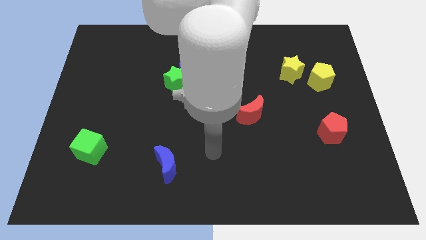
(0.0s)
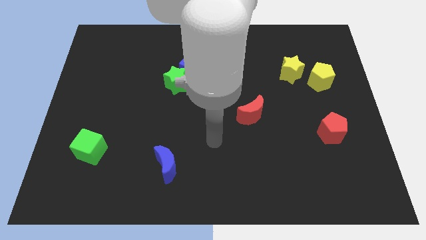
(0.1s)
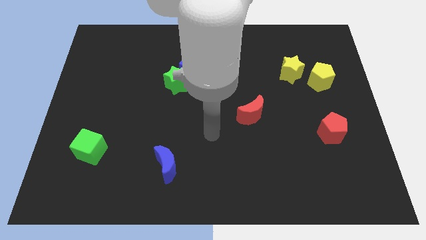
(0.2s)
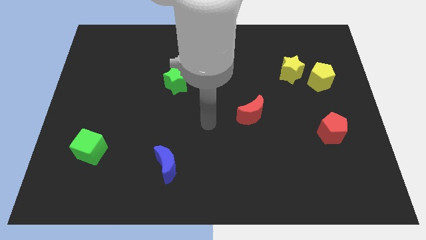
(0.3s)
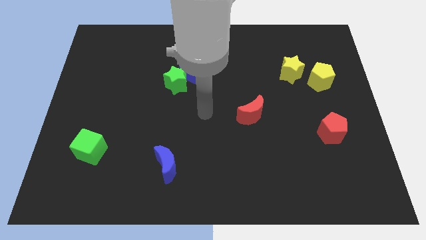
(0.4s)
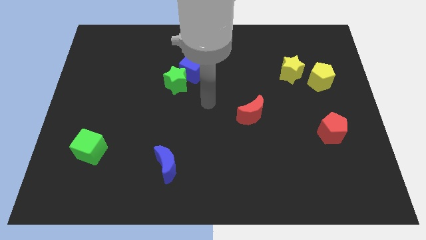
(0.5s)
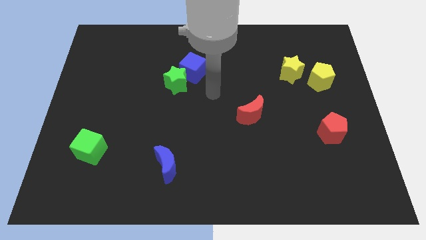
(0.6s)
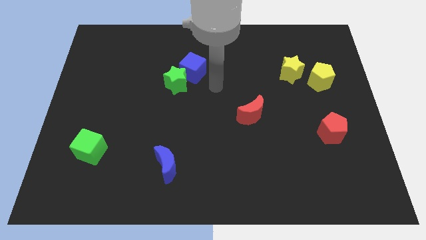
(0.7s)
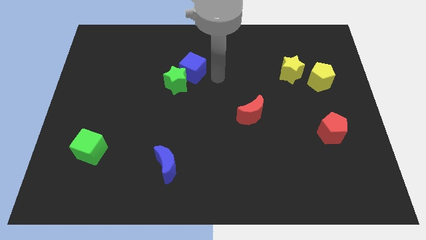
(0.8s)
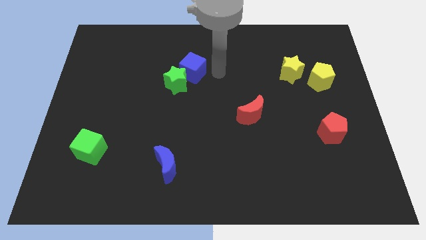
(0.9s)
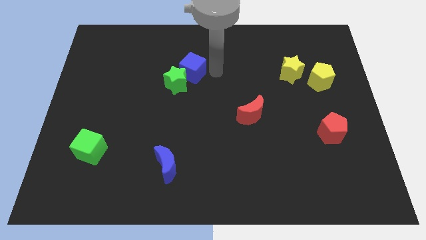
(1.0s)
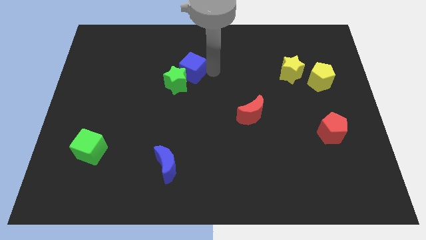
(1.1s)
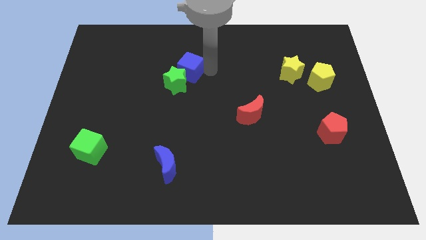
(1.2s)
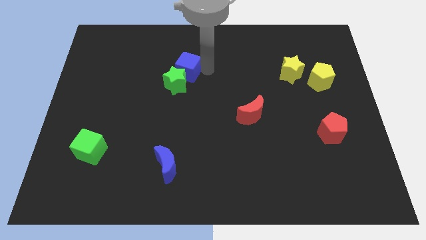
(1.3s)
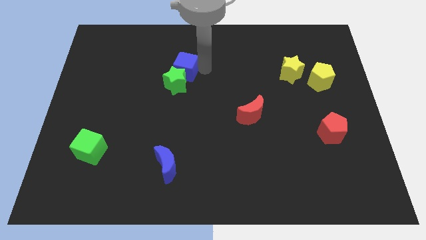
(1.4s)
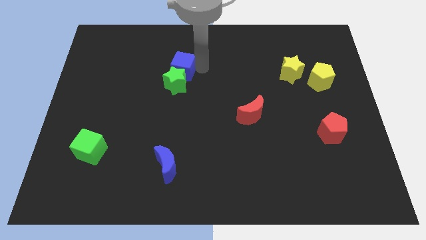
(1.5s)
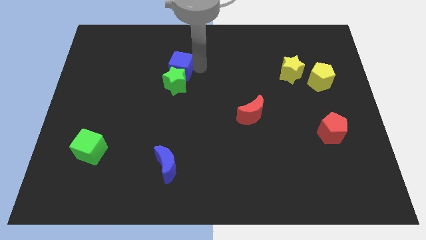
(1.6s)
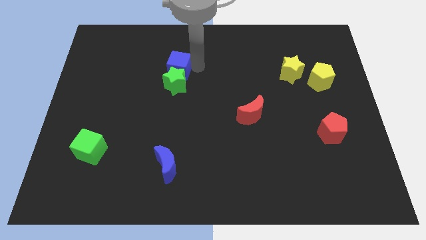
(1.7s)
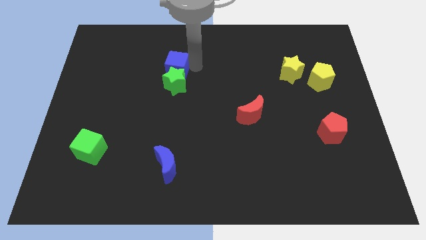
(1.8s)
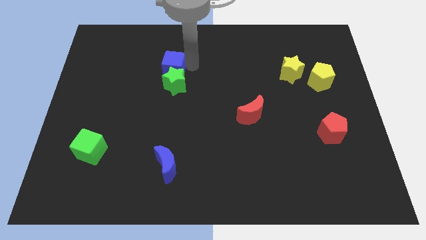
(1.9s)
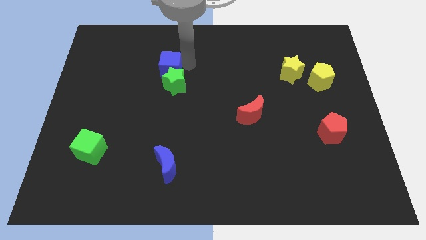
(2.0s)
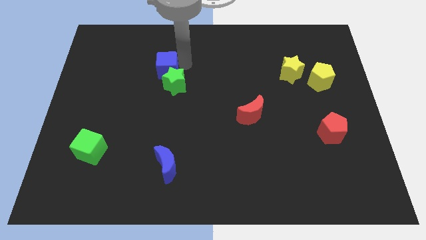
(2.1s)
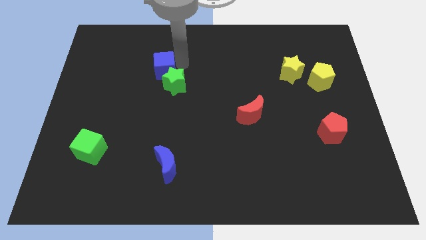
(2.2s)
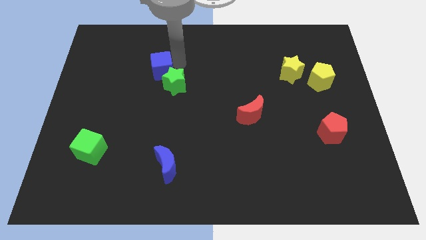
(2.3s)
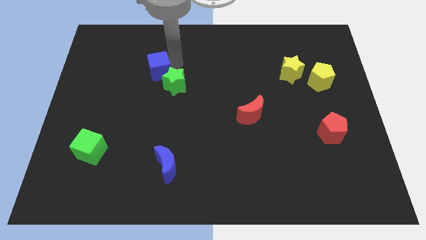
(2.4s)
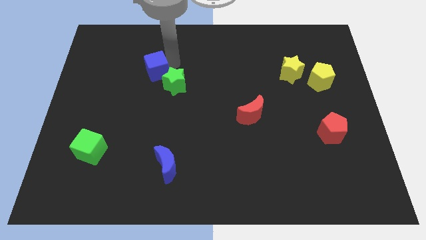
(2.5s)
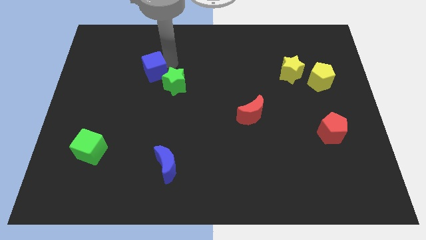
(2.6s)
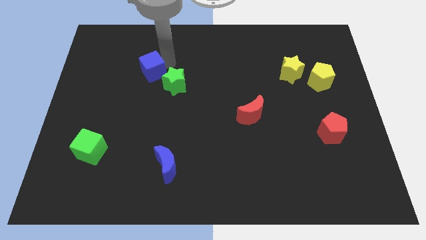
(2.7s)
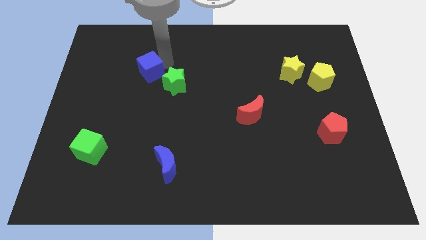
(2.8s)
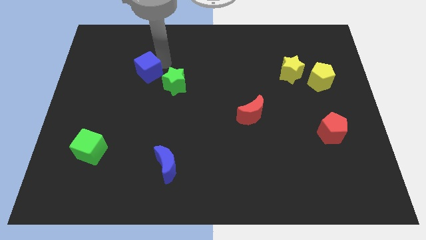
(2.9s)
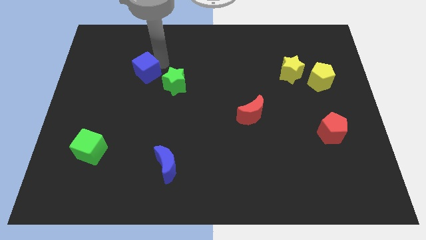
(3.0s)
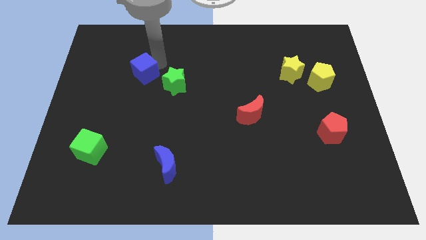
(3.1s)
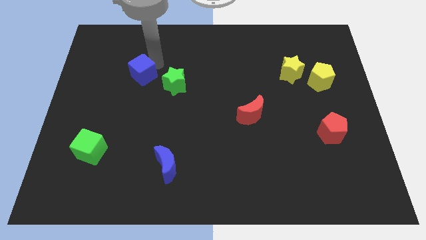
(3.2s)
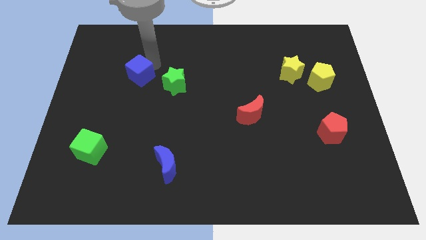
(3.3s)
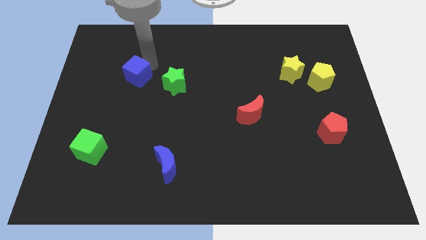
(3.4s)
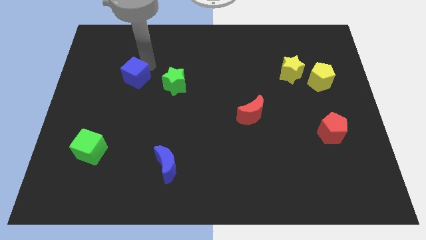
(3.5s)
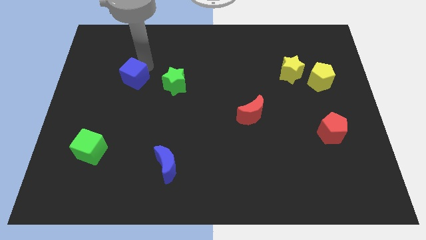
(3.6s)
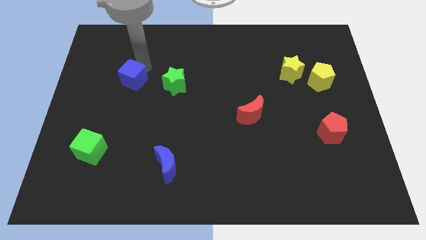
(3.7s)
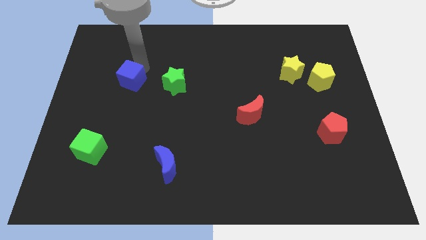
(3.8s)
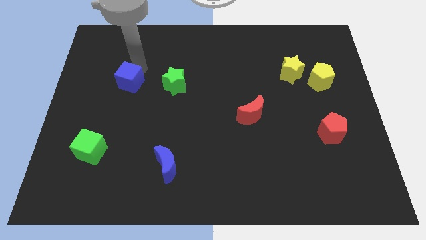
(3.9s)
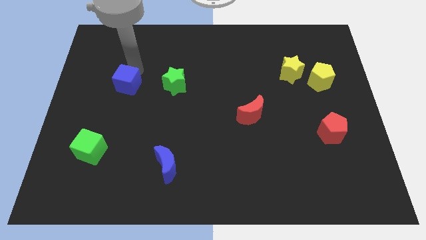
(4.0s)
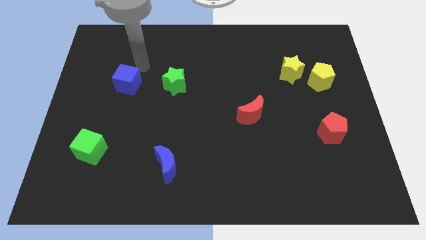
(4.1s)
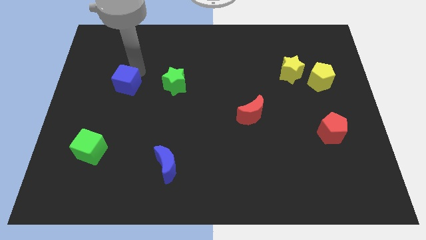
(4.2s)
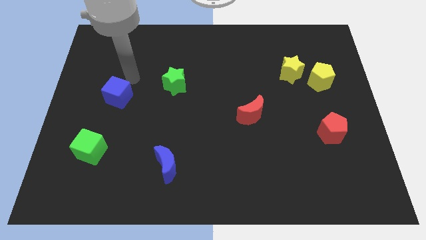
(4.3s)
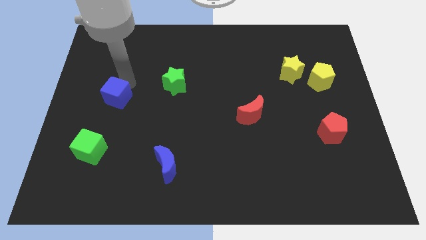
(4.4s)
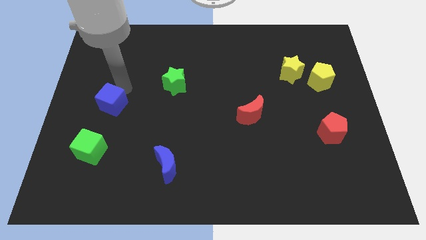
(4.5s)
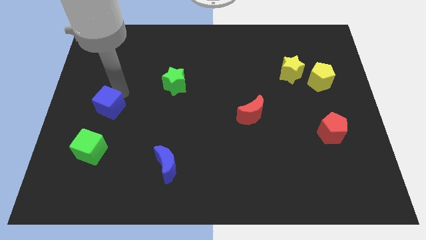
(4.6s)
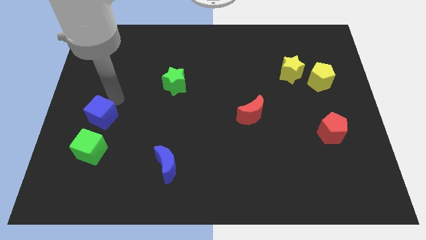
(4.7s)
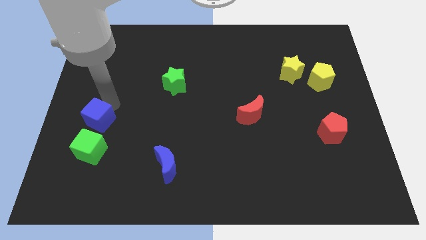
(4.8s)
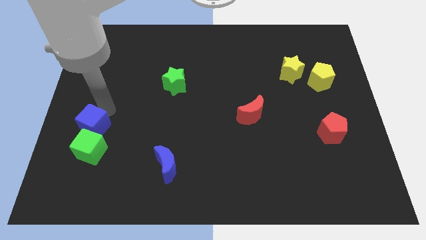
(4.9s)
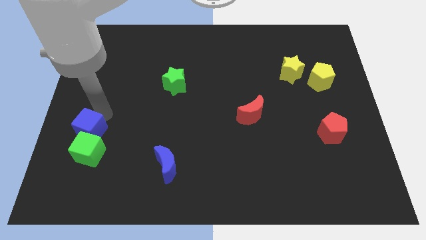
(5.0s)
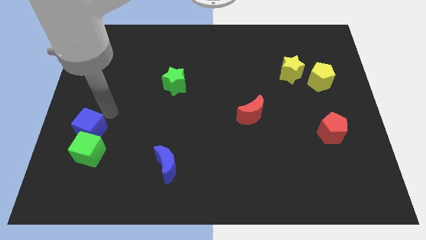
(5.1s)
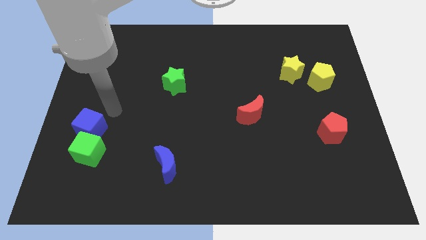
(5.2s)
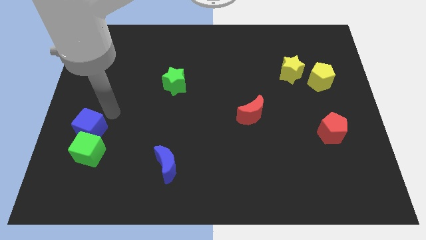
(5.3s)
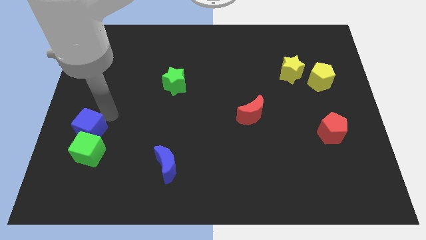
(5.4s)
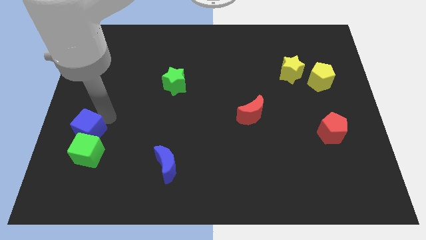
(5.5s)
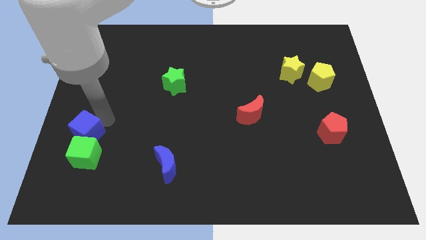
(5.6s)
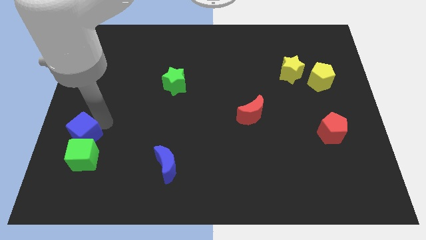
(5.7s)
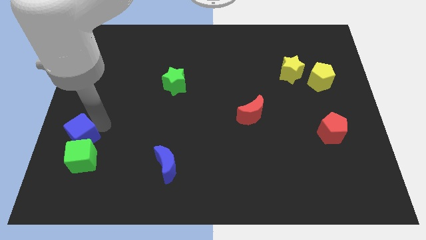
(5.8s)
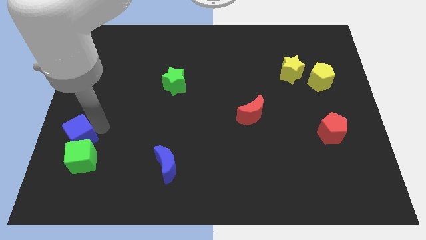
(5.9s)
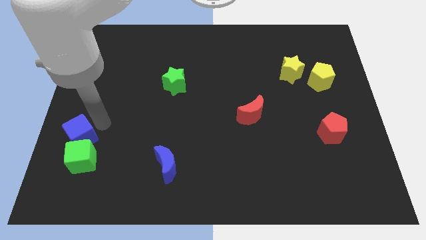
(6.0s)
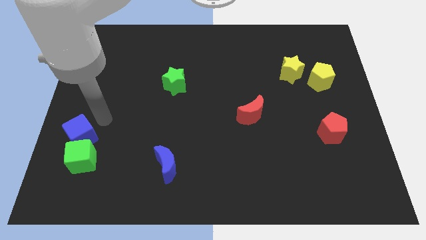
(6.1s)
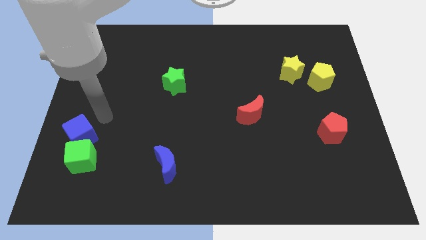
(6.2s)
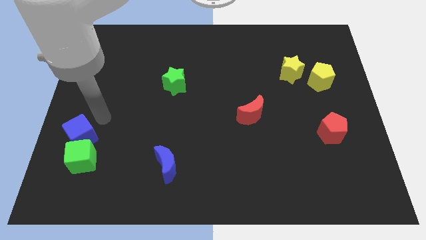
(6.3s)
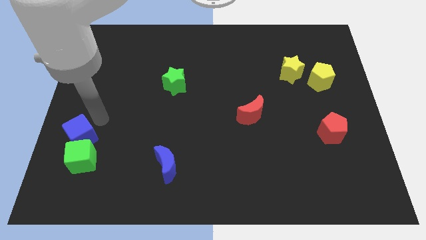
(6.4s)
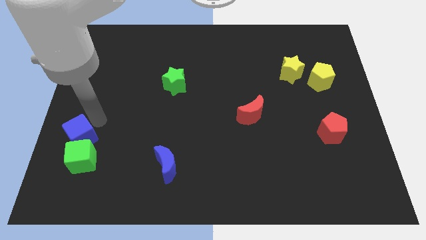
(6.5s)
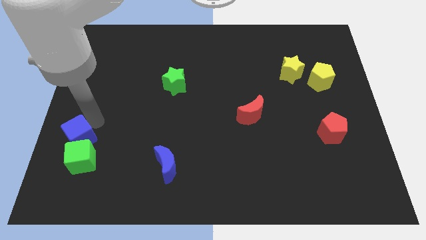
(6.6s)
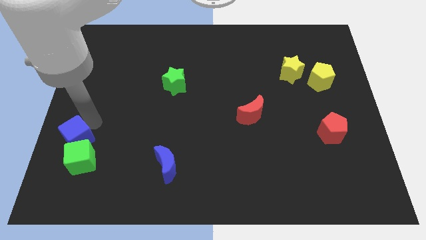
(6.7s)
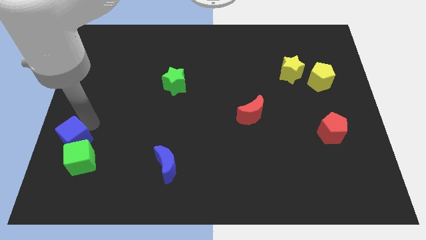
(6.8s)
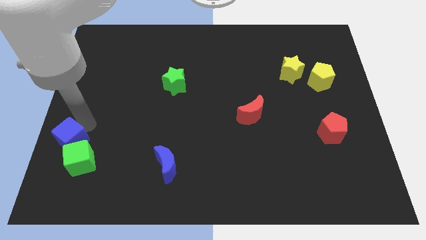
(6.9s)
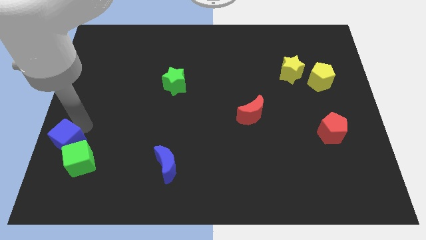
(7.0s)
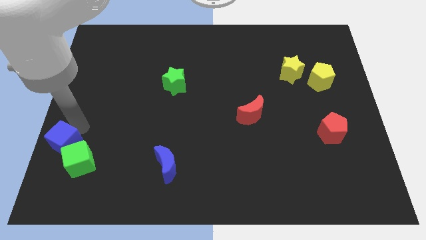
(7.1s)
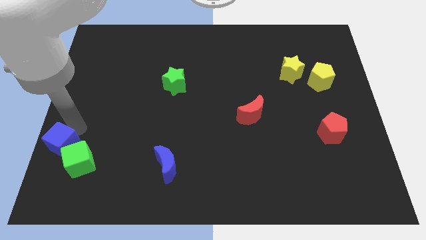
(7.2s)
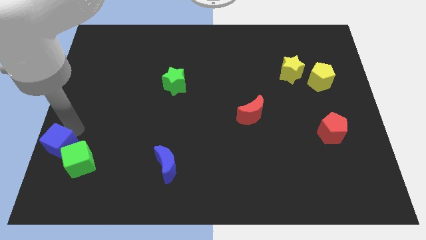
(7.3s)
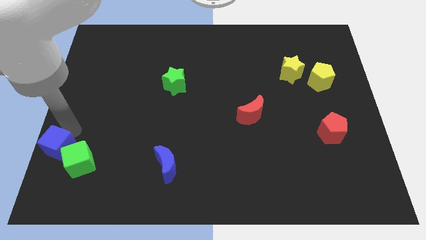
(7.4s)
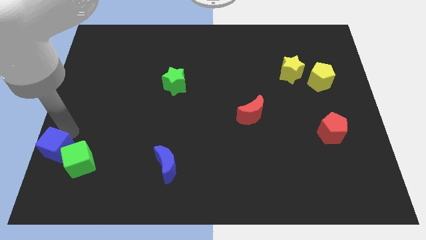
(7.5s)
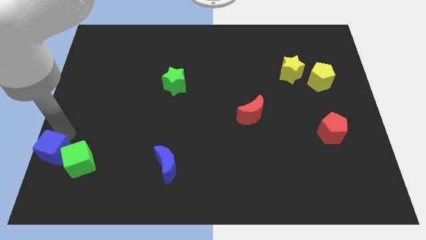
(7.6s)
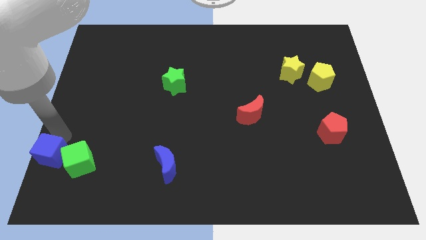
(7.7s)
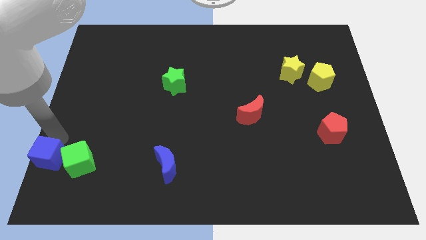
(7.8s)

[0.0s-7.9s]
slide the blue cube to the bottom left corner
